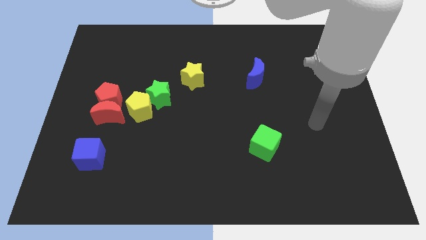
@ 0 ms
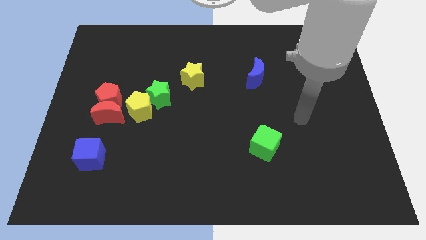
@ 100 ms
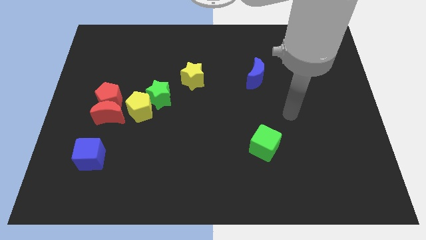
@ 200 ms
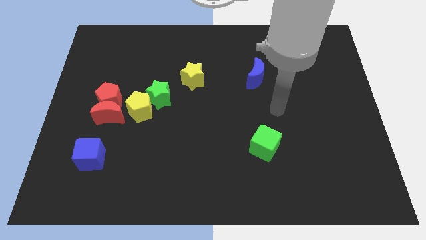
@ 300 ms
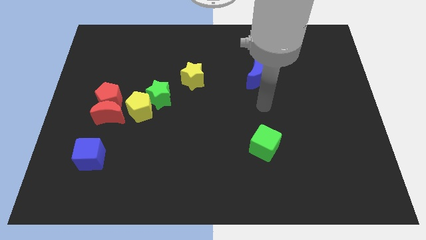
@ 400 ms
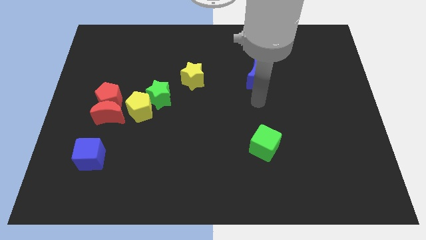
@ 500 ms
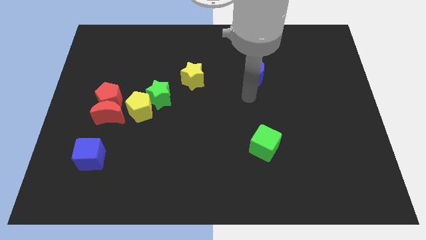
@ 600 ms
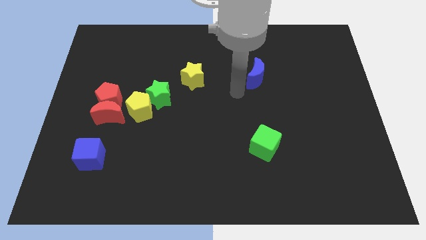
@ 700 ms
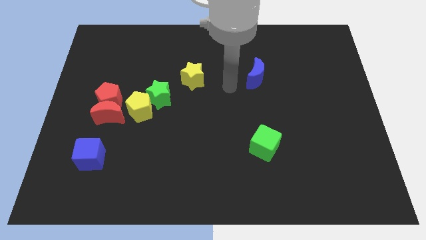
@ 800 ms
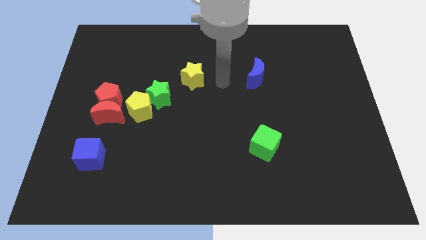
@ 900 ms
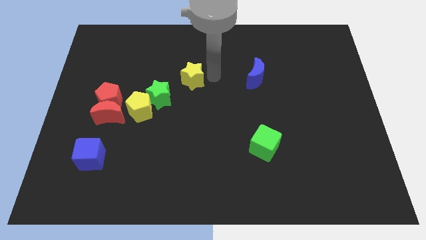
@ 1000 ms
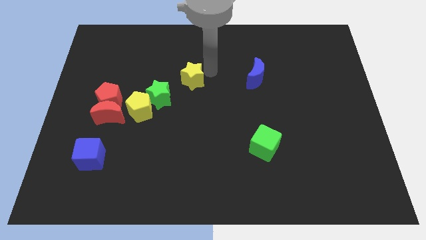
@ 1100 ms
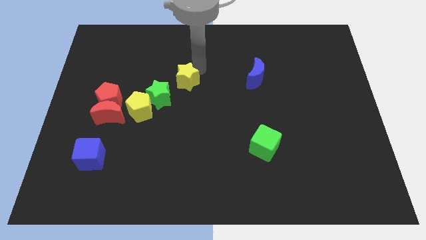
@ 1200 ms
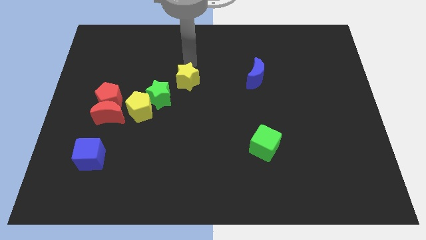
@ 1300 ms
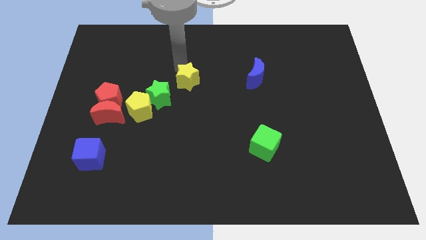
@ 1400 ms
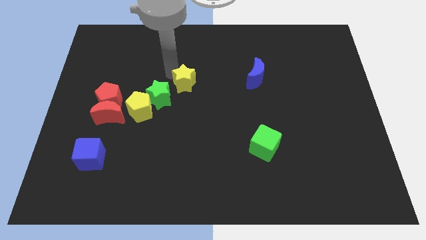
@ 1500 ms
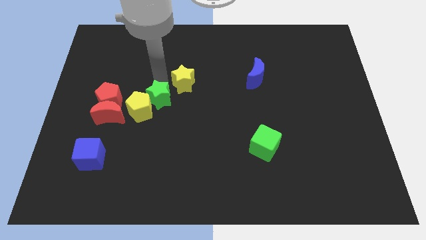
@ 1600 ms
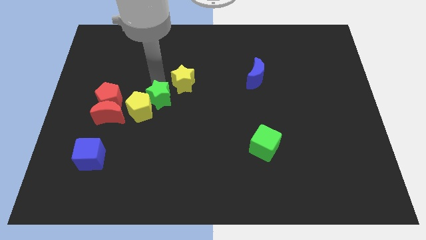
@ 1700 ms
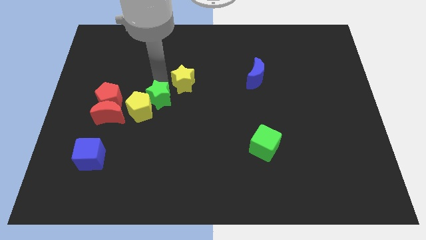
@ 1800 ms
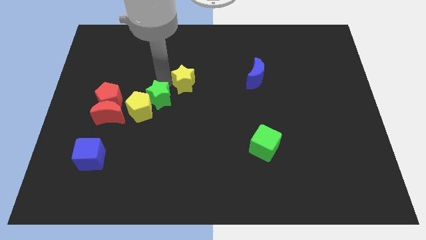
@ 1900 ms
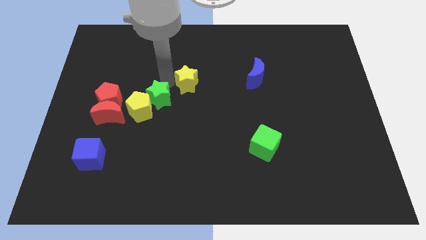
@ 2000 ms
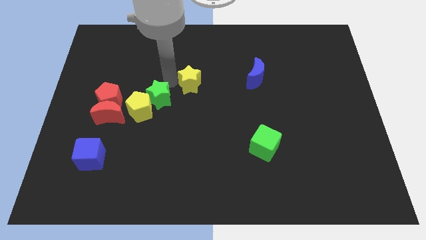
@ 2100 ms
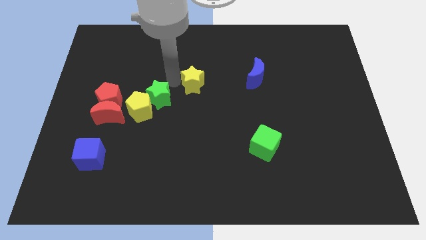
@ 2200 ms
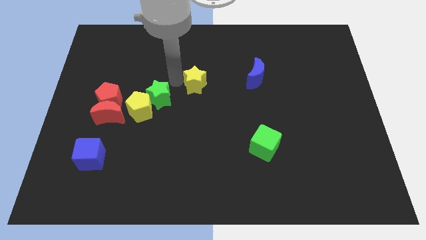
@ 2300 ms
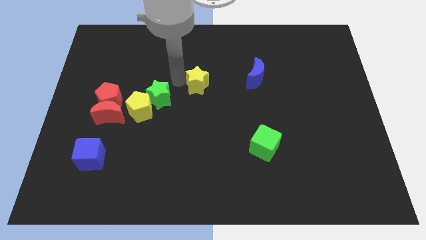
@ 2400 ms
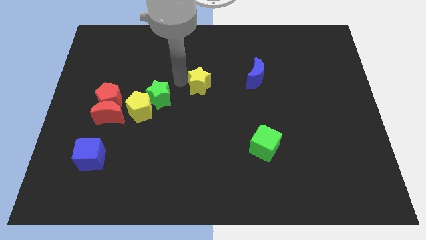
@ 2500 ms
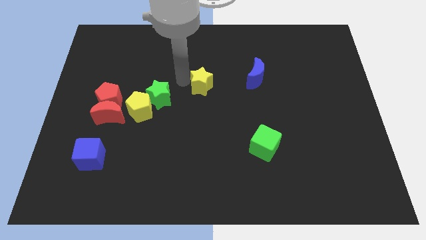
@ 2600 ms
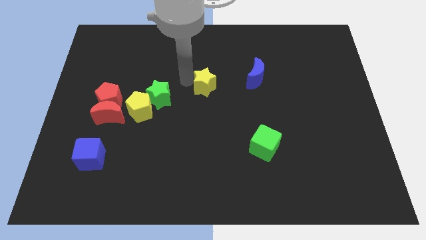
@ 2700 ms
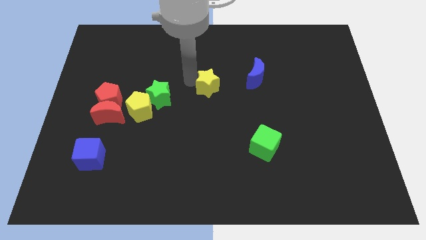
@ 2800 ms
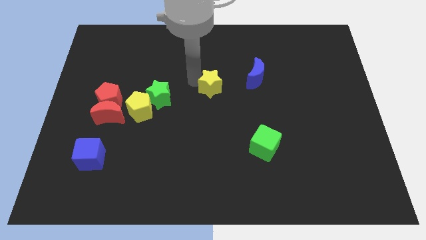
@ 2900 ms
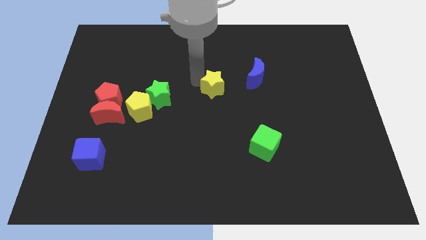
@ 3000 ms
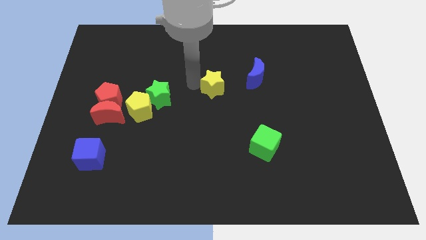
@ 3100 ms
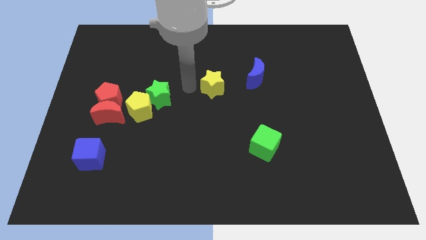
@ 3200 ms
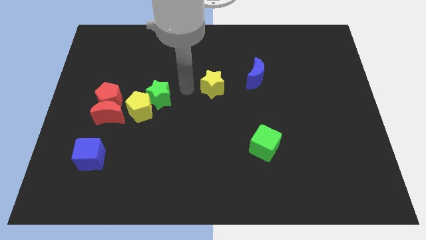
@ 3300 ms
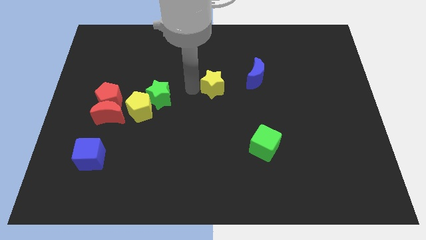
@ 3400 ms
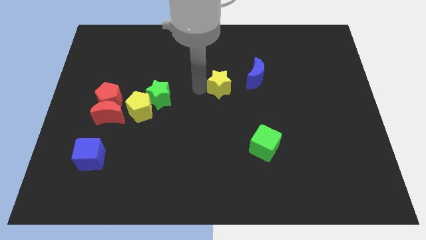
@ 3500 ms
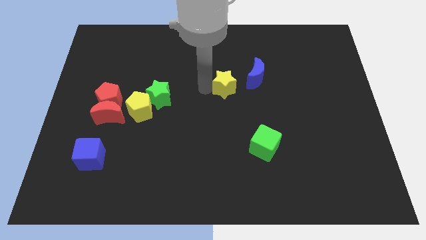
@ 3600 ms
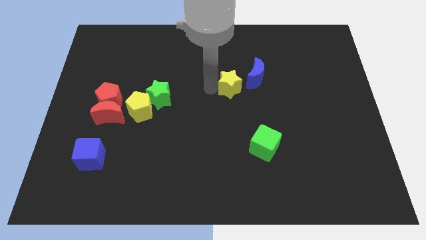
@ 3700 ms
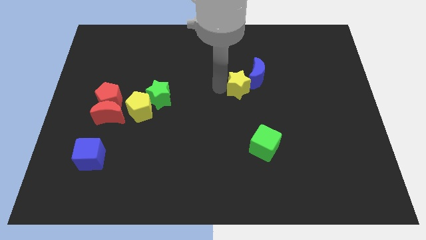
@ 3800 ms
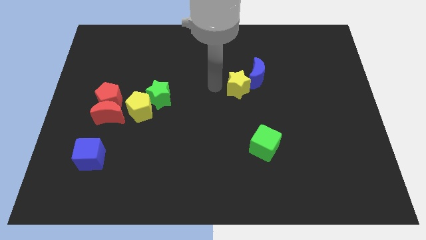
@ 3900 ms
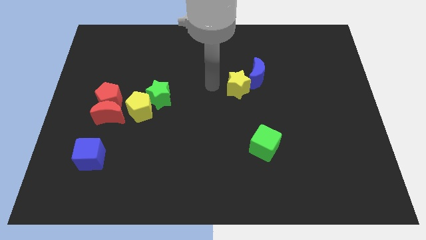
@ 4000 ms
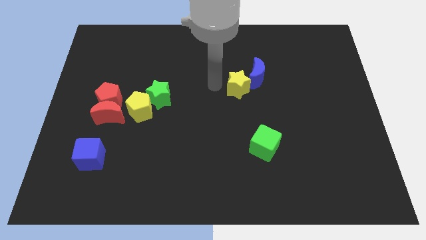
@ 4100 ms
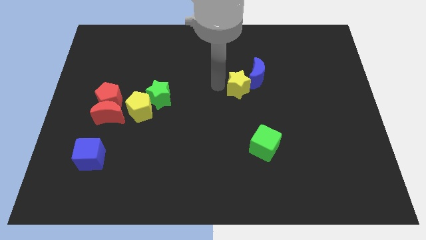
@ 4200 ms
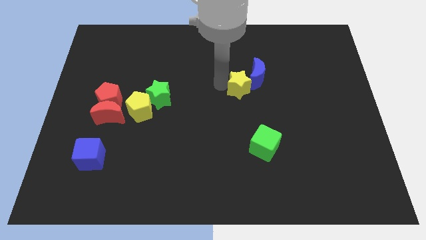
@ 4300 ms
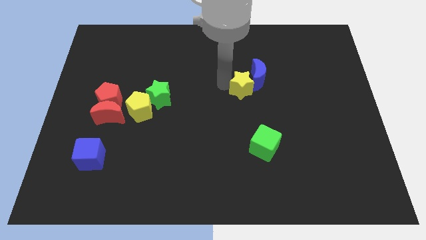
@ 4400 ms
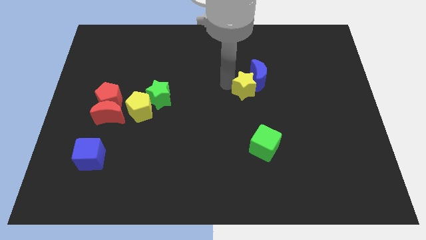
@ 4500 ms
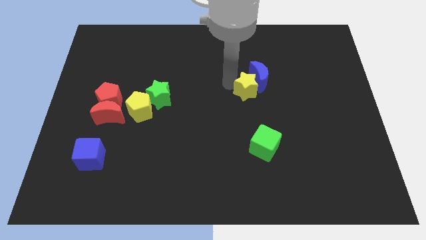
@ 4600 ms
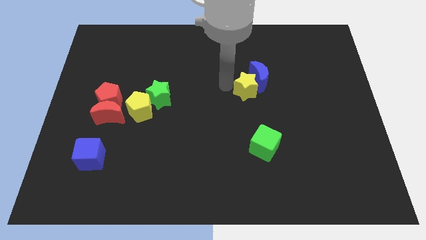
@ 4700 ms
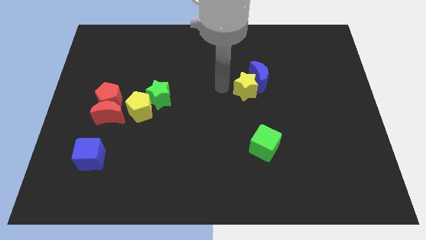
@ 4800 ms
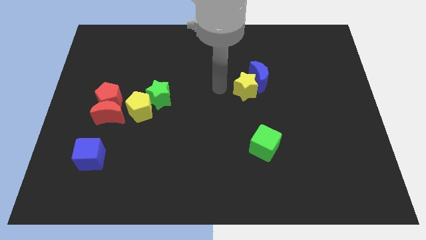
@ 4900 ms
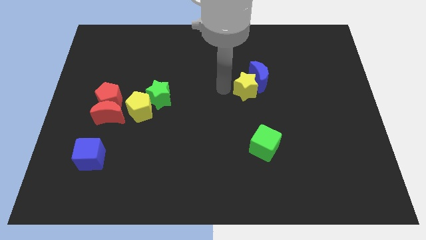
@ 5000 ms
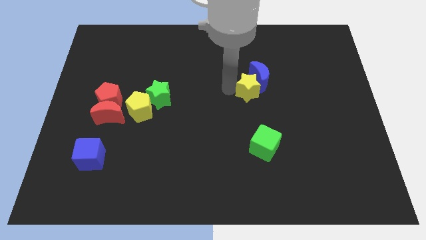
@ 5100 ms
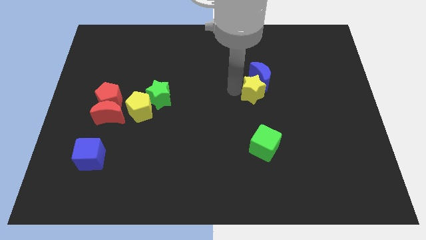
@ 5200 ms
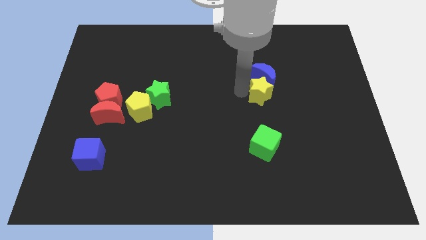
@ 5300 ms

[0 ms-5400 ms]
push the yellow star to the bottom right of the blue moon
